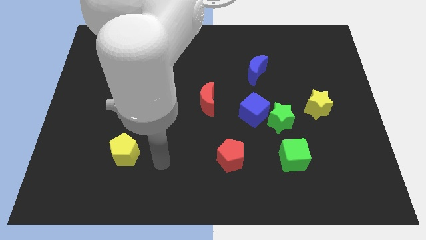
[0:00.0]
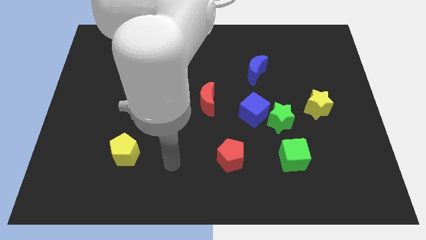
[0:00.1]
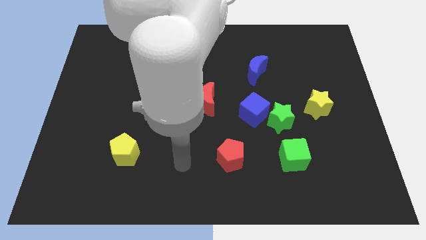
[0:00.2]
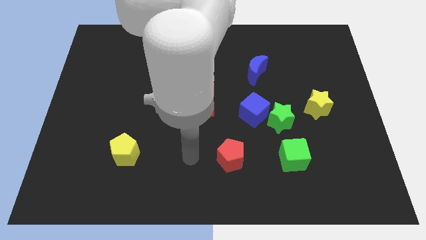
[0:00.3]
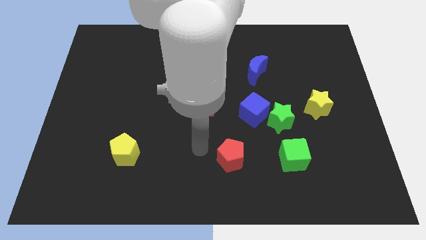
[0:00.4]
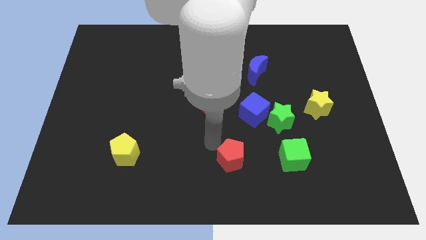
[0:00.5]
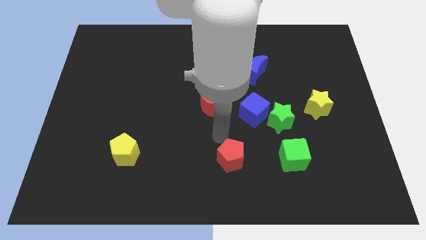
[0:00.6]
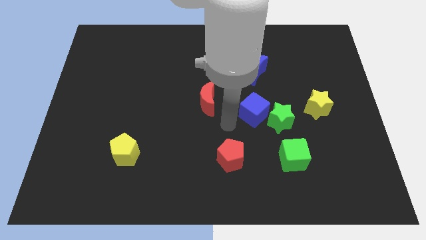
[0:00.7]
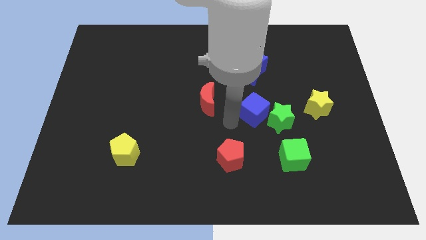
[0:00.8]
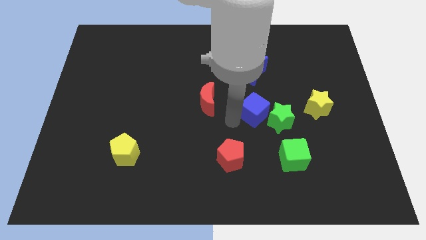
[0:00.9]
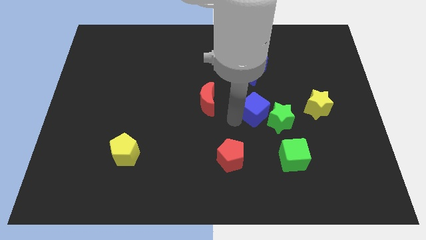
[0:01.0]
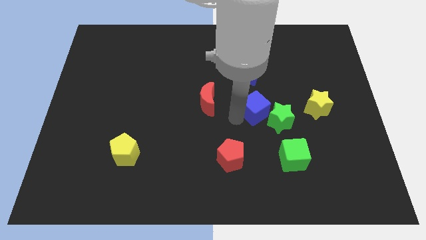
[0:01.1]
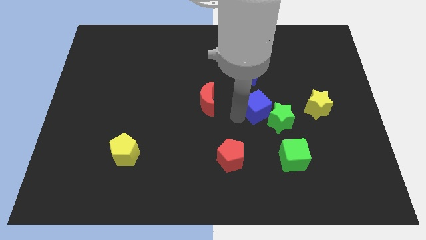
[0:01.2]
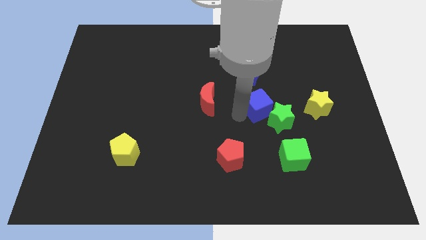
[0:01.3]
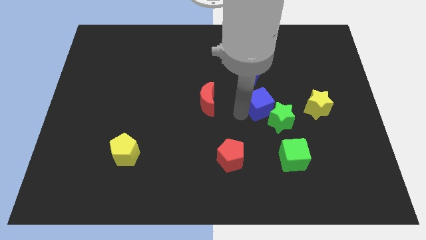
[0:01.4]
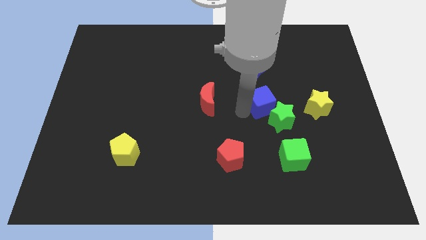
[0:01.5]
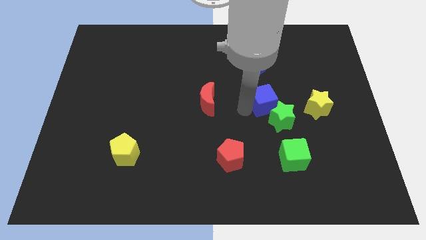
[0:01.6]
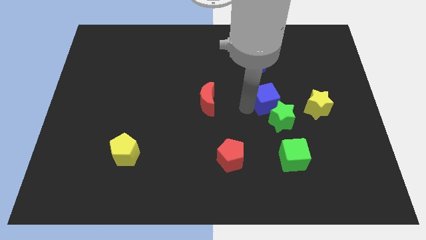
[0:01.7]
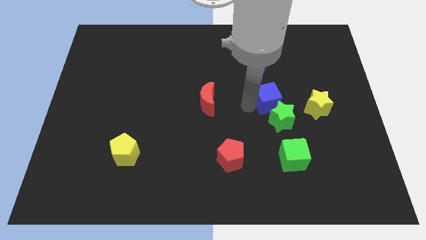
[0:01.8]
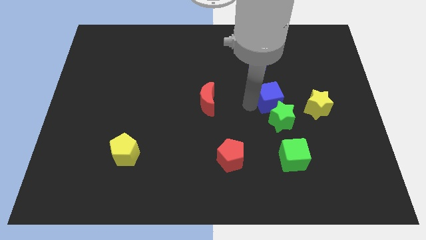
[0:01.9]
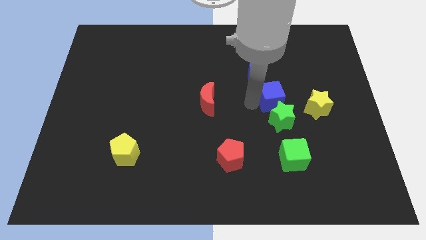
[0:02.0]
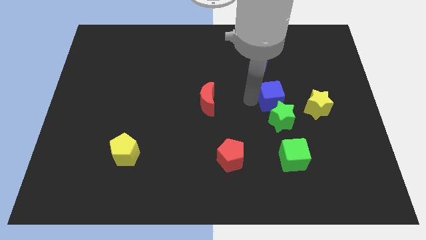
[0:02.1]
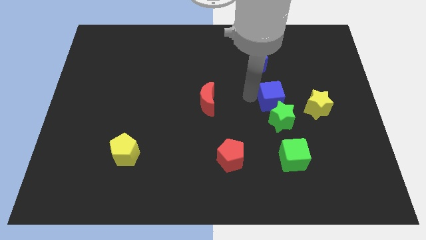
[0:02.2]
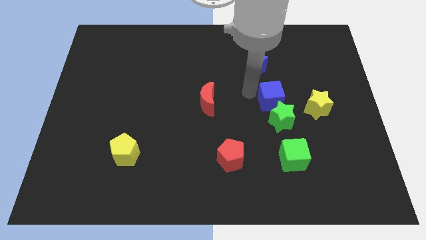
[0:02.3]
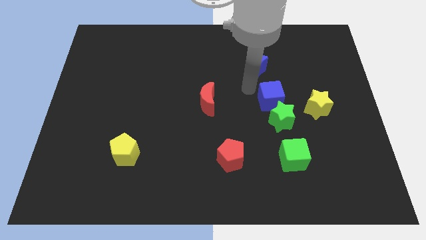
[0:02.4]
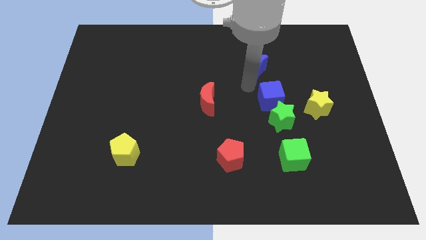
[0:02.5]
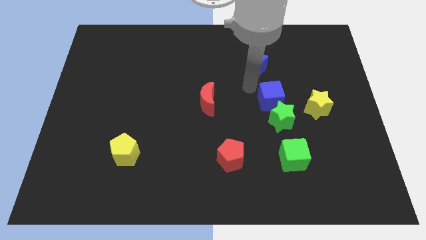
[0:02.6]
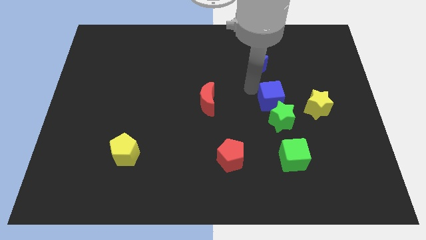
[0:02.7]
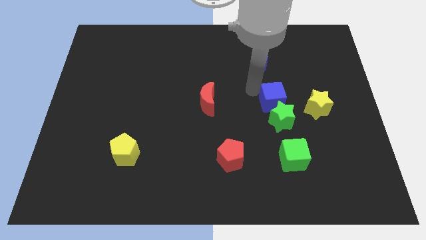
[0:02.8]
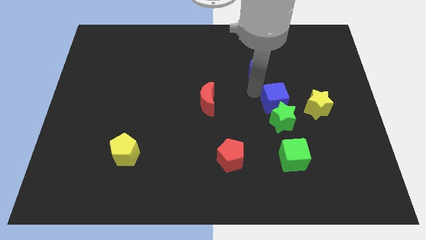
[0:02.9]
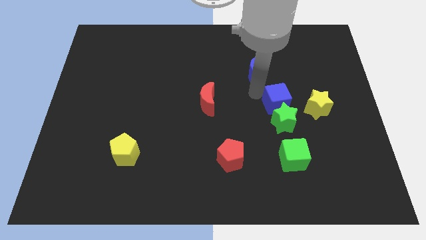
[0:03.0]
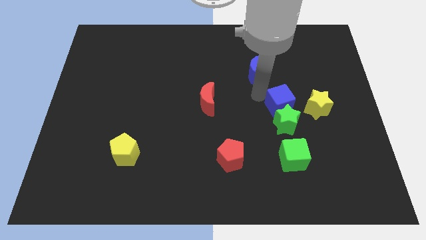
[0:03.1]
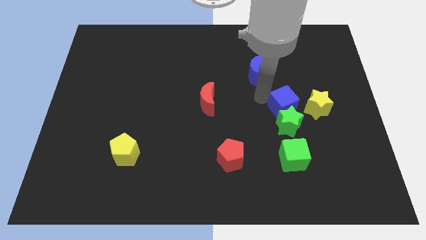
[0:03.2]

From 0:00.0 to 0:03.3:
move the blue cube a little bit right

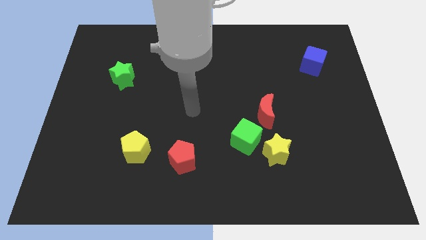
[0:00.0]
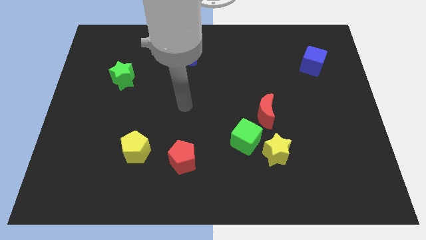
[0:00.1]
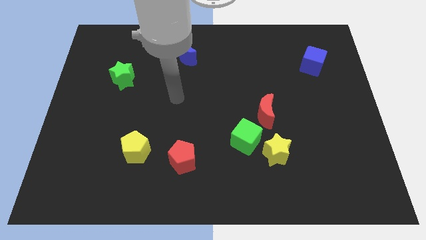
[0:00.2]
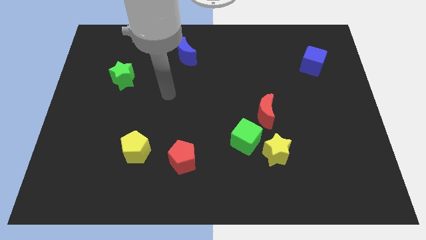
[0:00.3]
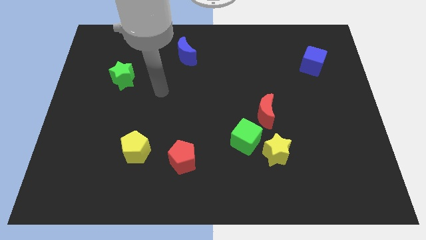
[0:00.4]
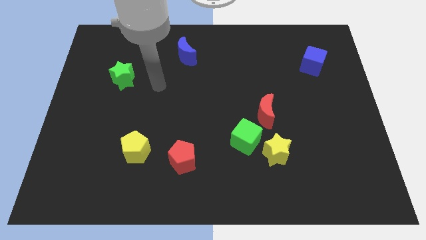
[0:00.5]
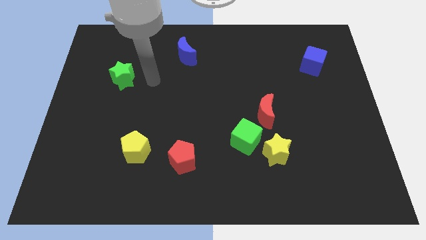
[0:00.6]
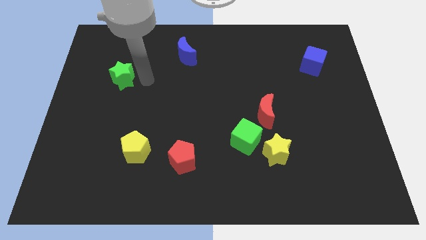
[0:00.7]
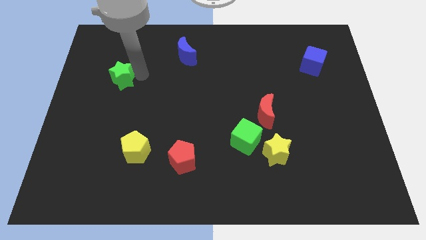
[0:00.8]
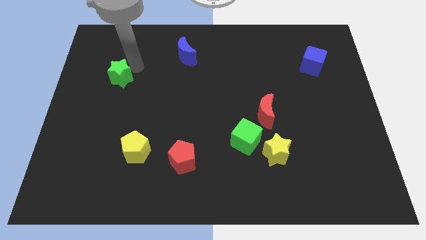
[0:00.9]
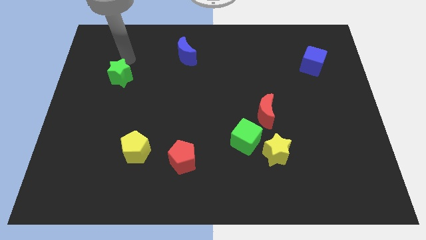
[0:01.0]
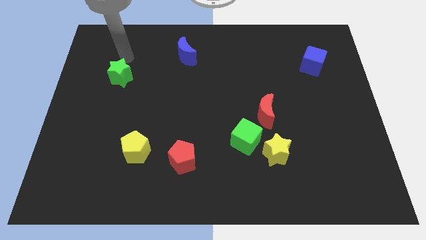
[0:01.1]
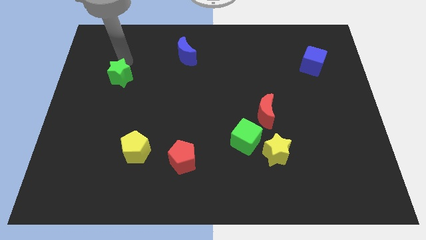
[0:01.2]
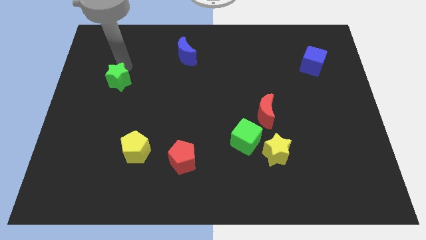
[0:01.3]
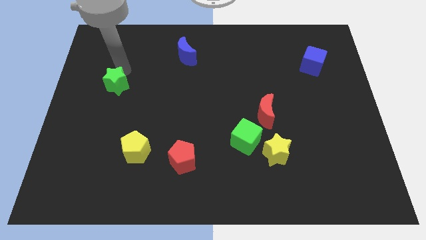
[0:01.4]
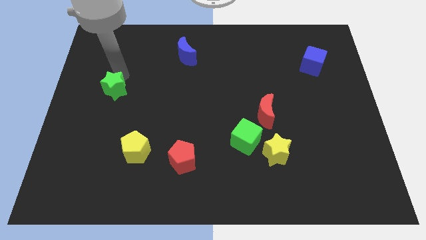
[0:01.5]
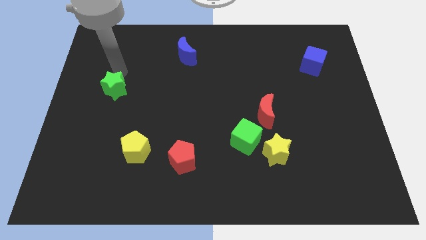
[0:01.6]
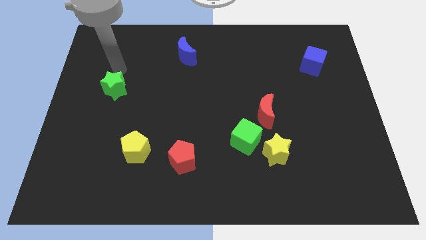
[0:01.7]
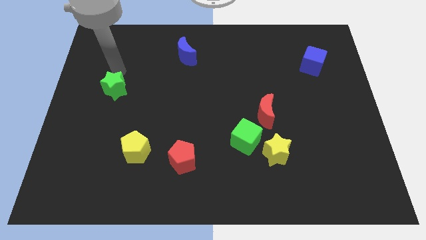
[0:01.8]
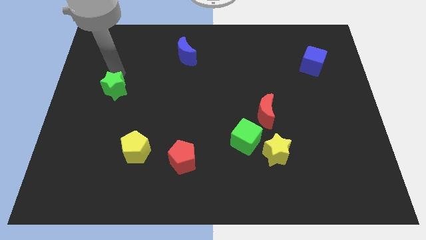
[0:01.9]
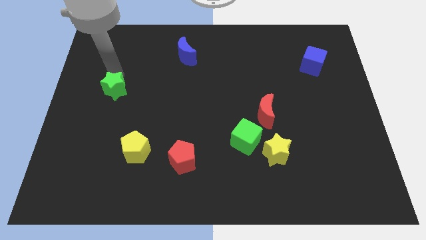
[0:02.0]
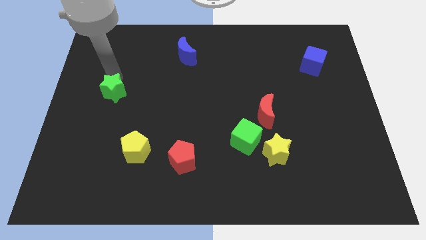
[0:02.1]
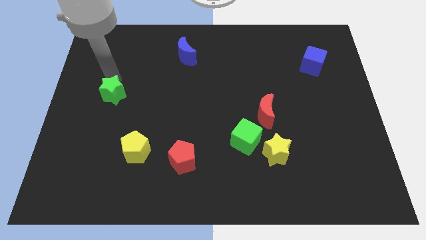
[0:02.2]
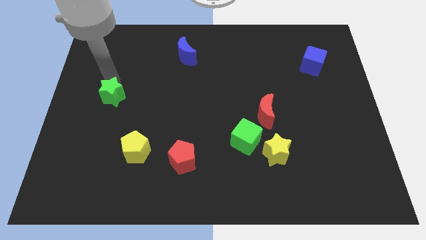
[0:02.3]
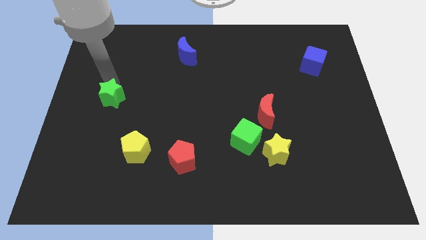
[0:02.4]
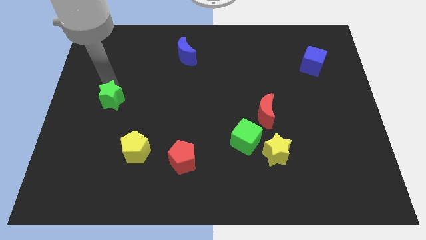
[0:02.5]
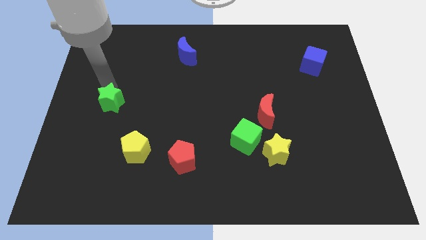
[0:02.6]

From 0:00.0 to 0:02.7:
slightly slide the green star downwards

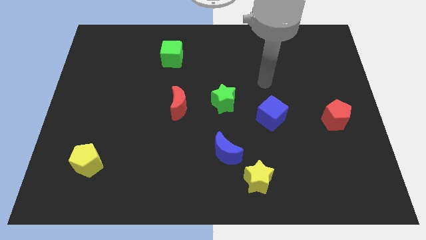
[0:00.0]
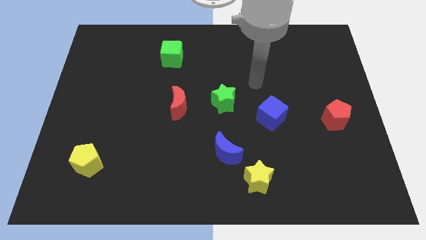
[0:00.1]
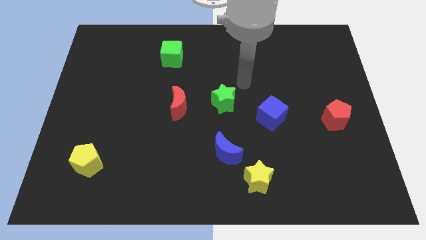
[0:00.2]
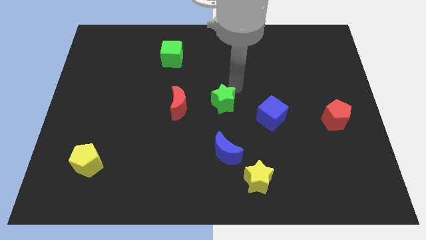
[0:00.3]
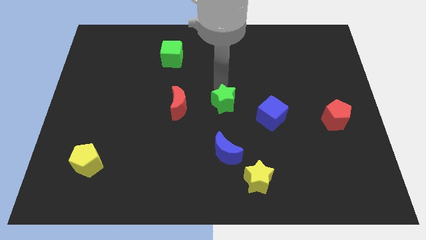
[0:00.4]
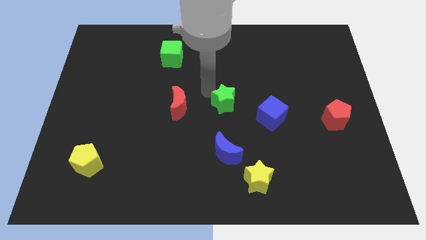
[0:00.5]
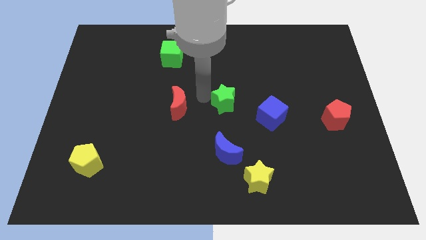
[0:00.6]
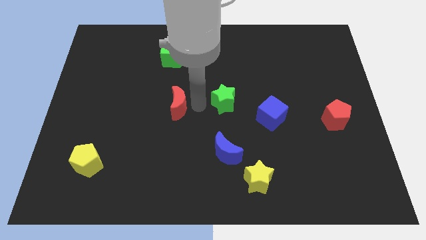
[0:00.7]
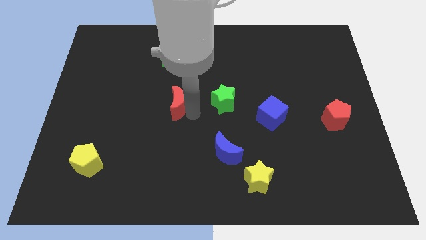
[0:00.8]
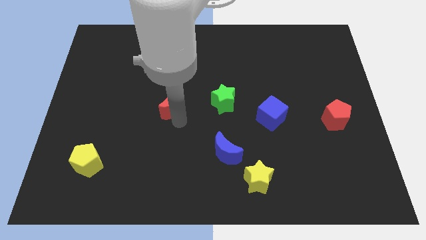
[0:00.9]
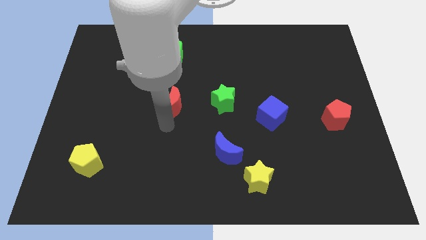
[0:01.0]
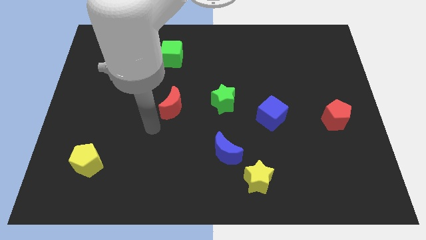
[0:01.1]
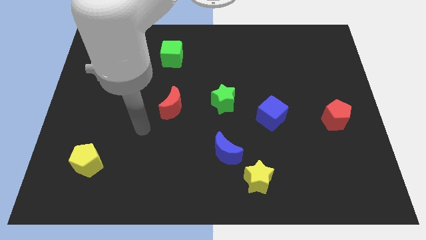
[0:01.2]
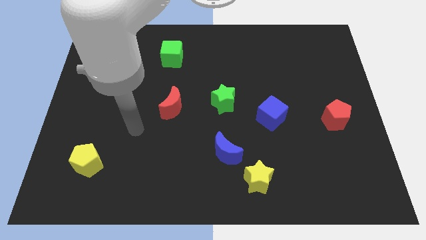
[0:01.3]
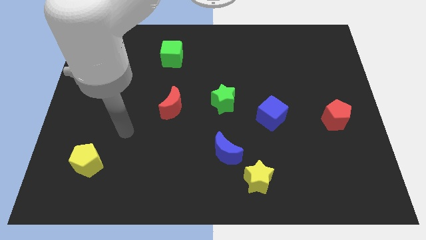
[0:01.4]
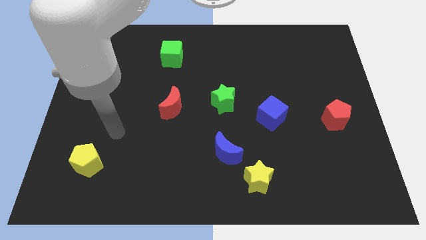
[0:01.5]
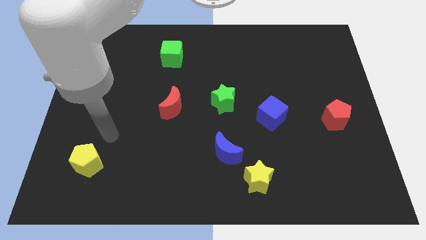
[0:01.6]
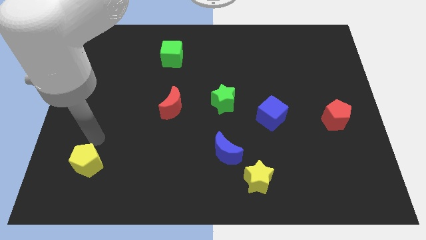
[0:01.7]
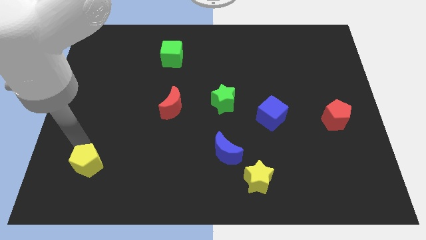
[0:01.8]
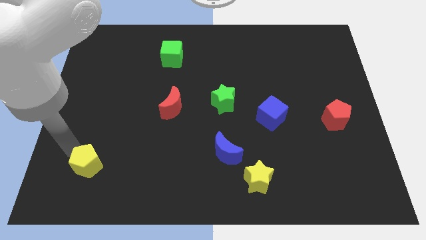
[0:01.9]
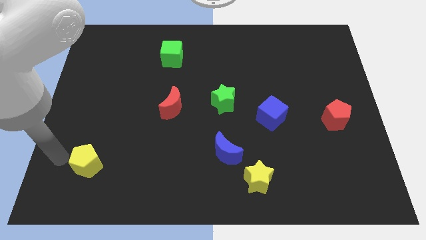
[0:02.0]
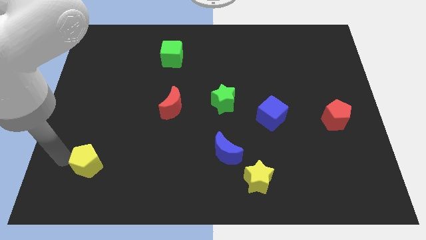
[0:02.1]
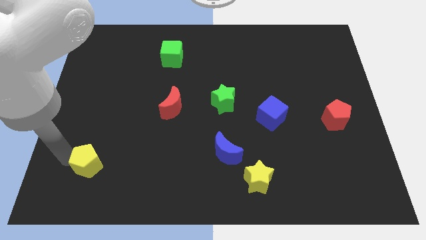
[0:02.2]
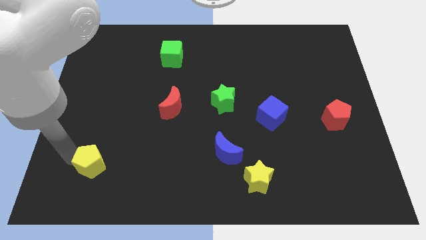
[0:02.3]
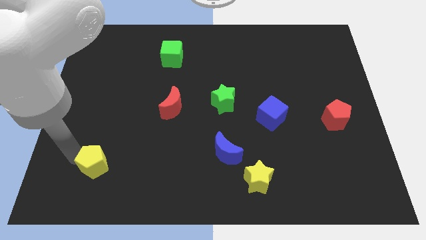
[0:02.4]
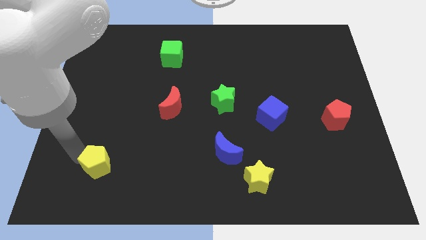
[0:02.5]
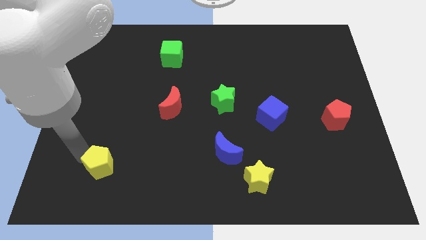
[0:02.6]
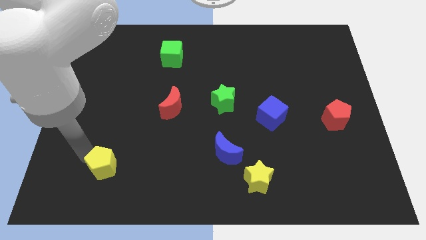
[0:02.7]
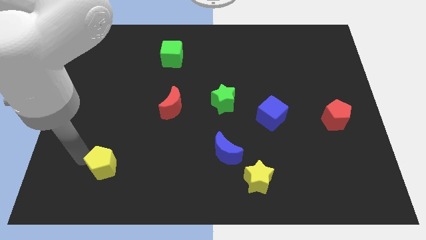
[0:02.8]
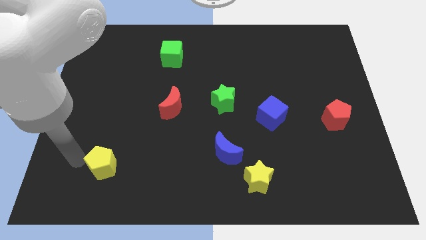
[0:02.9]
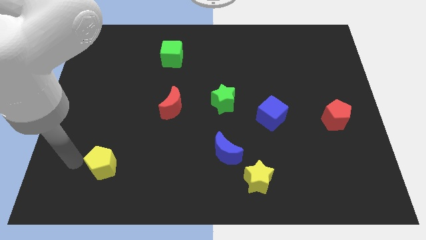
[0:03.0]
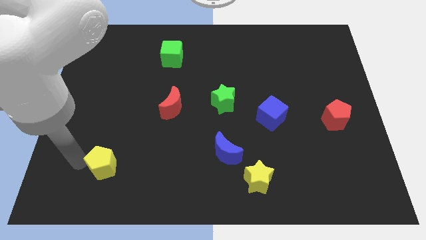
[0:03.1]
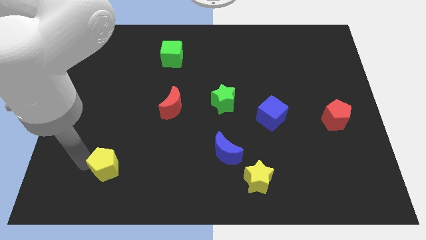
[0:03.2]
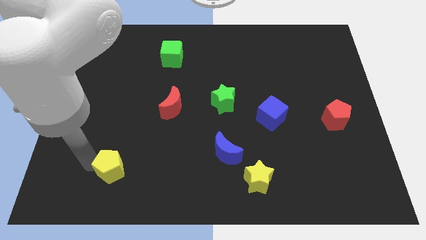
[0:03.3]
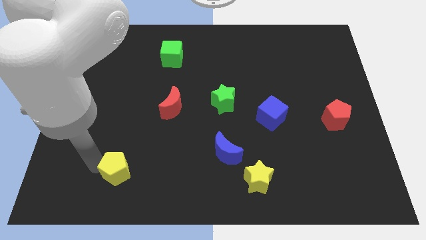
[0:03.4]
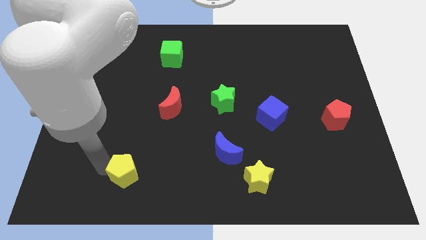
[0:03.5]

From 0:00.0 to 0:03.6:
slightly push the yellow pentagon to the right
